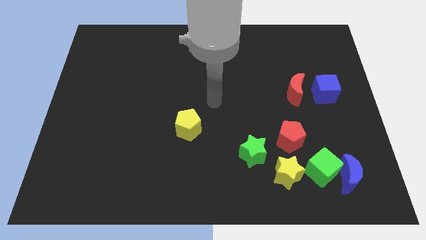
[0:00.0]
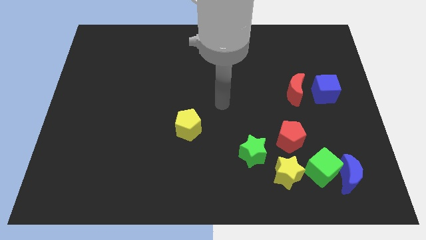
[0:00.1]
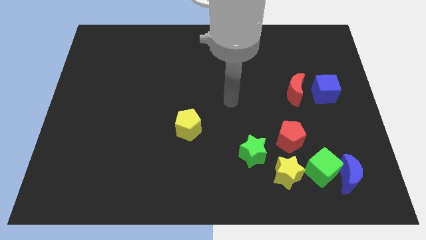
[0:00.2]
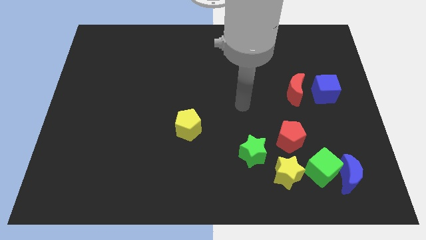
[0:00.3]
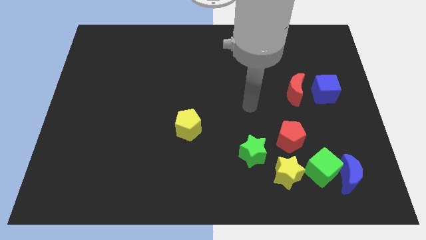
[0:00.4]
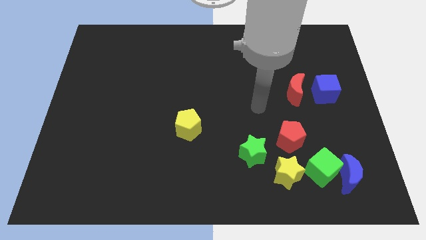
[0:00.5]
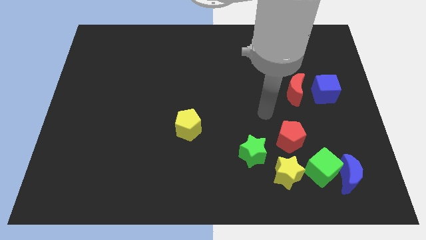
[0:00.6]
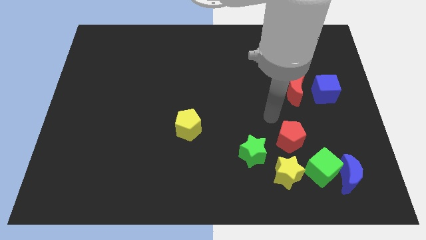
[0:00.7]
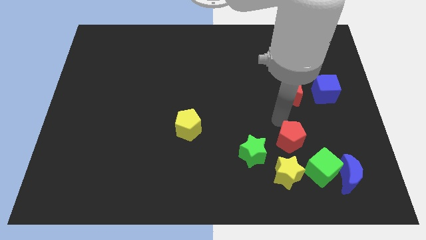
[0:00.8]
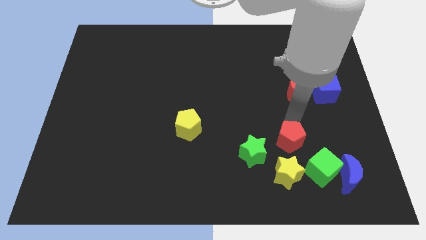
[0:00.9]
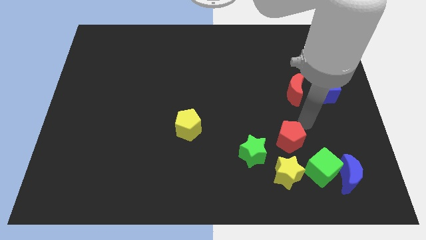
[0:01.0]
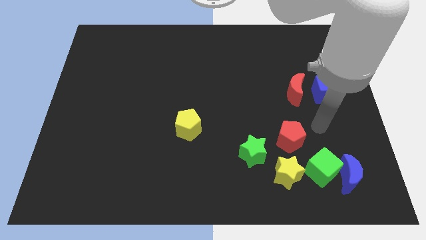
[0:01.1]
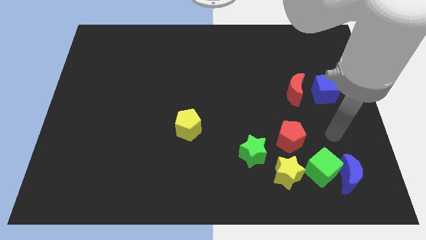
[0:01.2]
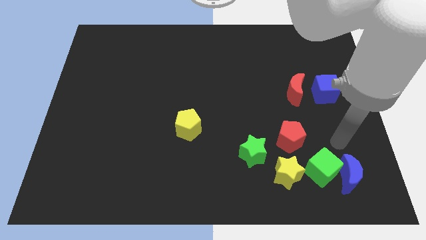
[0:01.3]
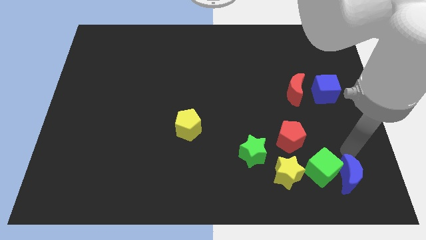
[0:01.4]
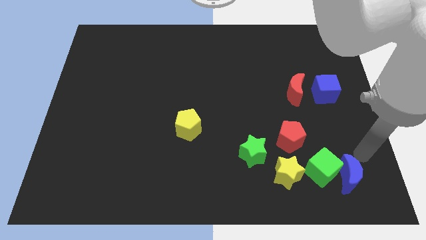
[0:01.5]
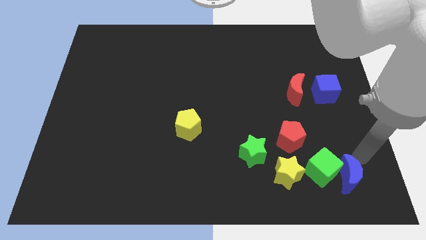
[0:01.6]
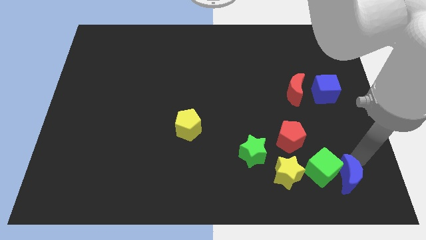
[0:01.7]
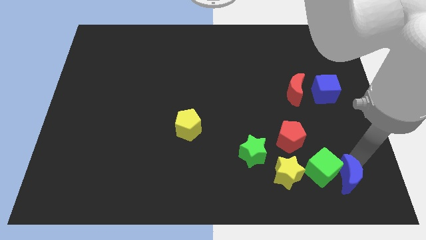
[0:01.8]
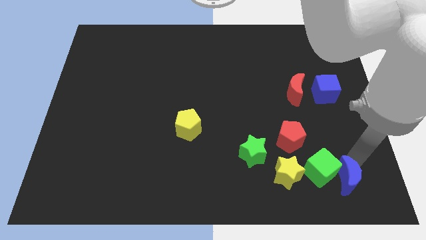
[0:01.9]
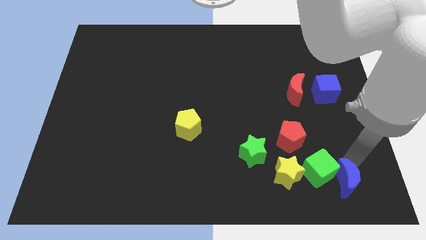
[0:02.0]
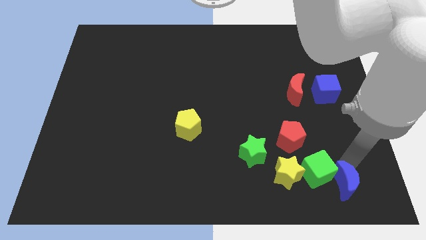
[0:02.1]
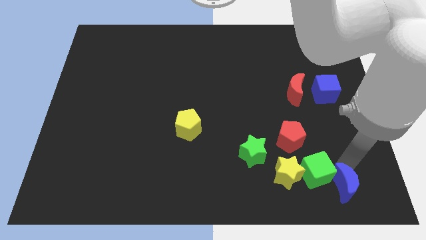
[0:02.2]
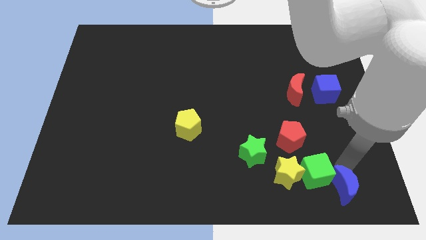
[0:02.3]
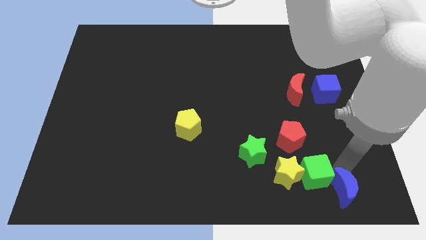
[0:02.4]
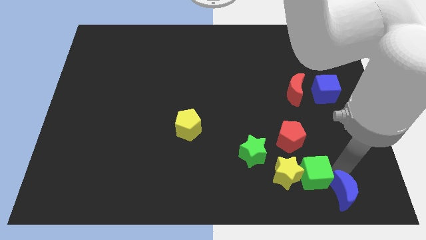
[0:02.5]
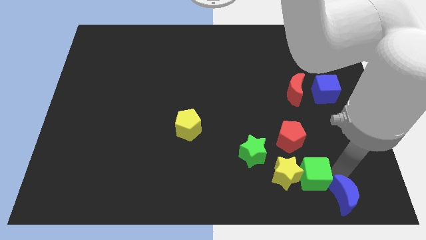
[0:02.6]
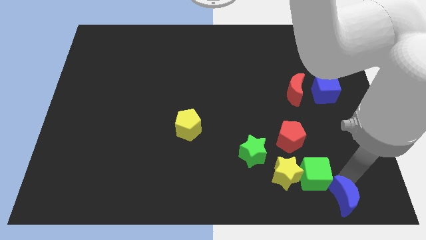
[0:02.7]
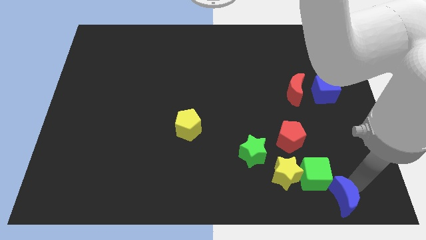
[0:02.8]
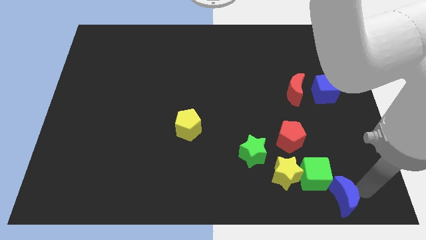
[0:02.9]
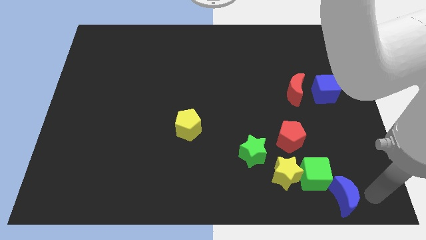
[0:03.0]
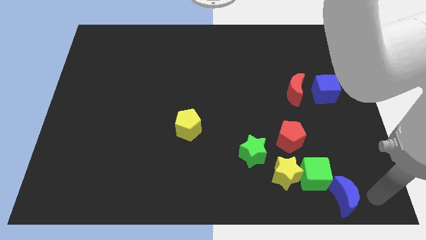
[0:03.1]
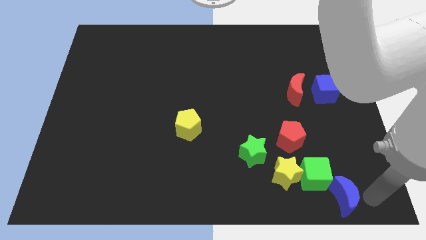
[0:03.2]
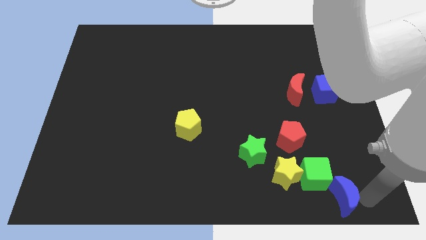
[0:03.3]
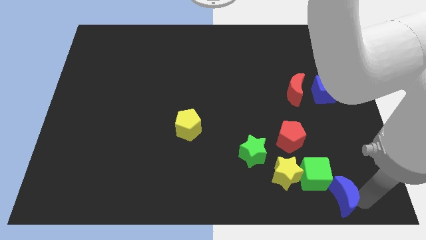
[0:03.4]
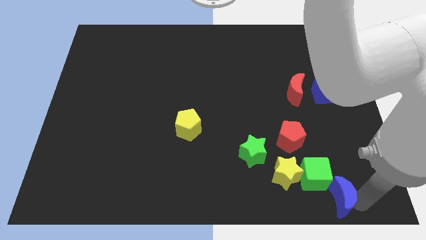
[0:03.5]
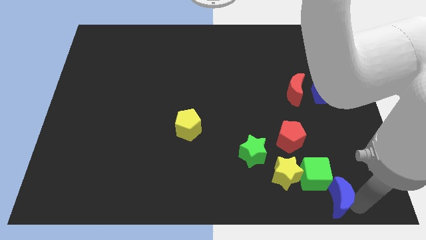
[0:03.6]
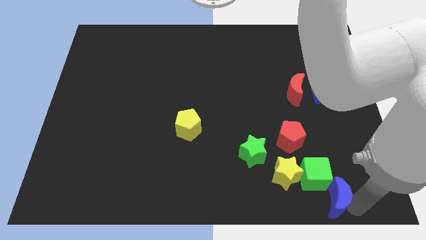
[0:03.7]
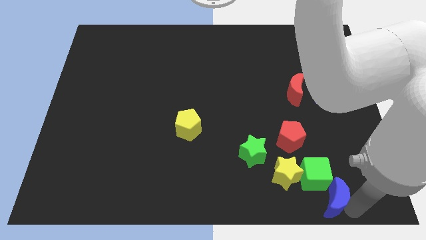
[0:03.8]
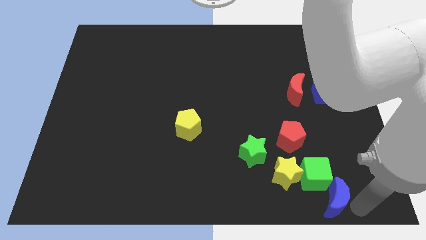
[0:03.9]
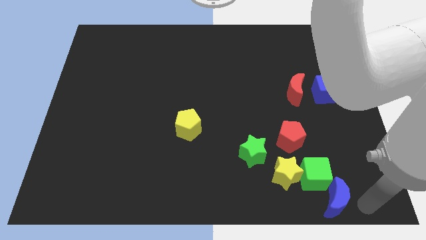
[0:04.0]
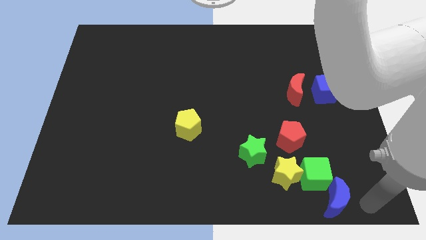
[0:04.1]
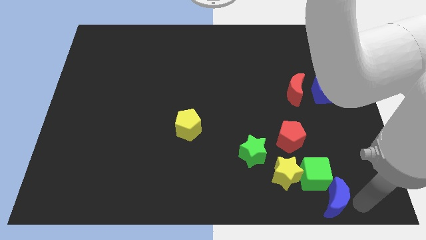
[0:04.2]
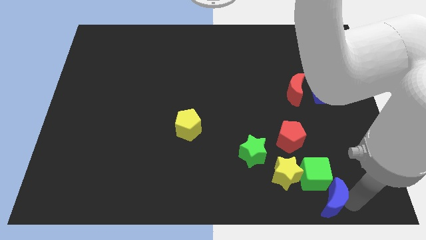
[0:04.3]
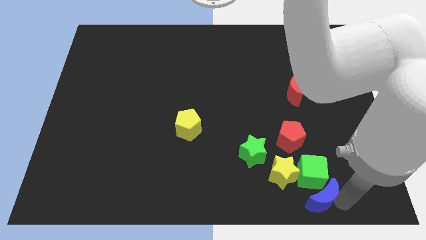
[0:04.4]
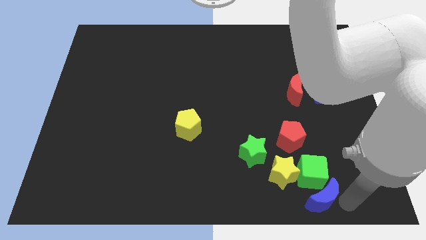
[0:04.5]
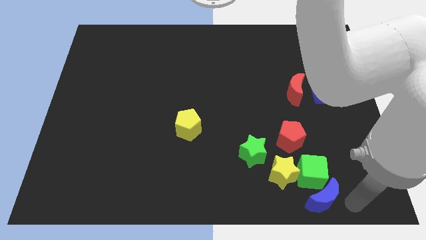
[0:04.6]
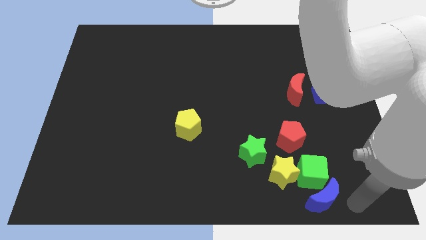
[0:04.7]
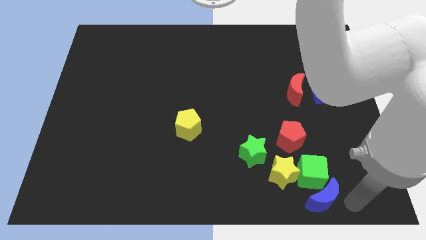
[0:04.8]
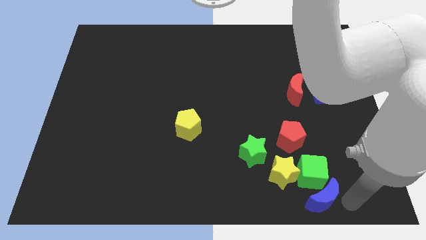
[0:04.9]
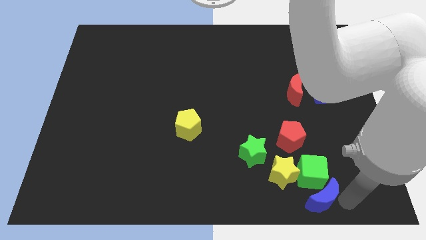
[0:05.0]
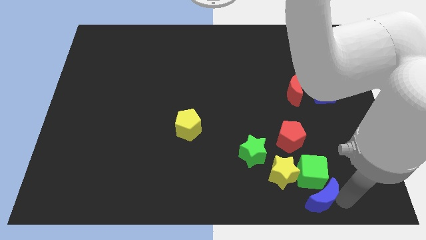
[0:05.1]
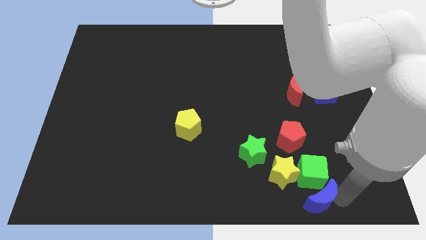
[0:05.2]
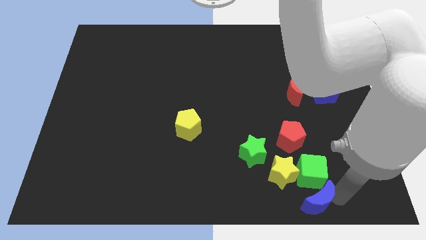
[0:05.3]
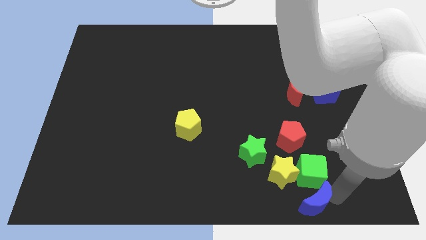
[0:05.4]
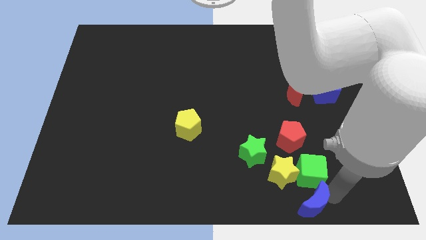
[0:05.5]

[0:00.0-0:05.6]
move the blue moon a little left

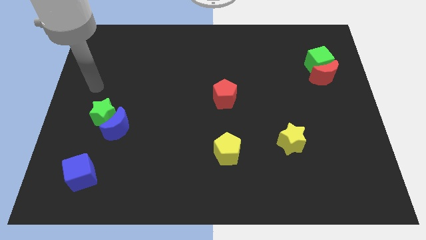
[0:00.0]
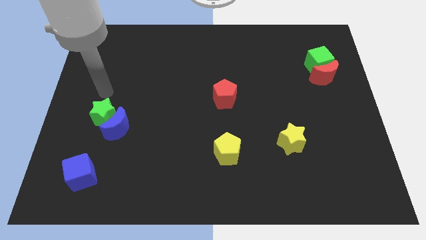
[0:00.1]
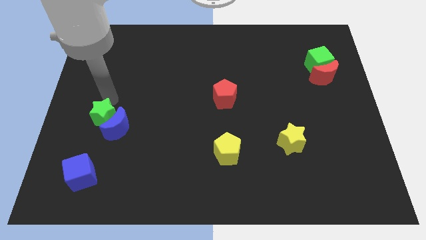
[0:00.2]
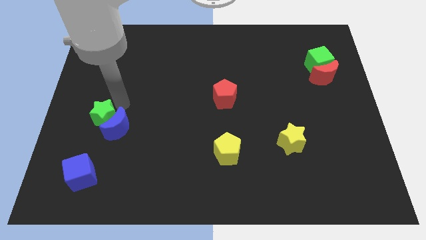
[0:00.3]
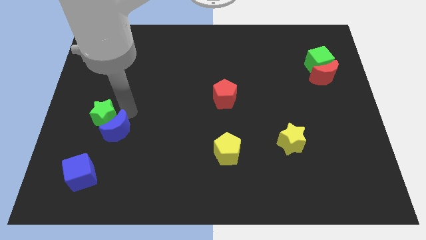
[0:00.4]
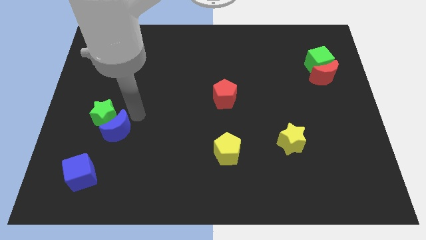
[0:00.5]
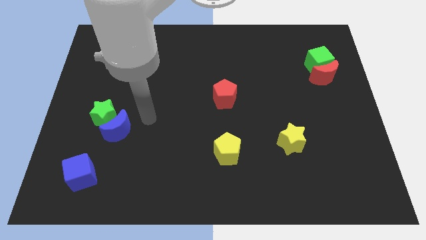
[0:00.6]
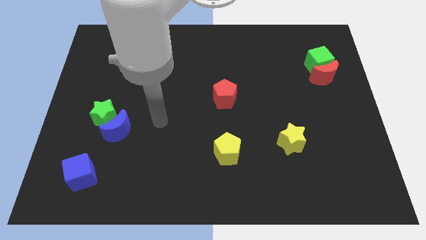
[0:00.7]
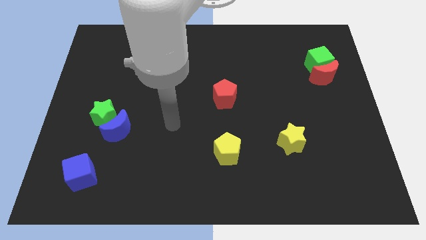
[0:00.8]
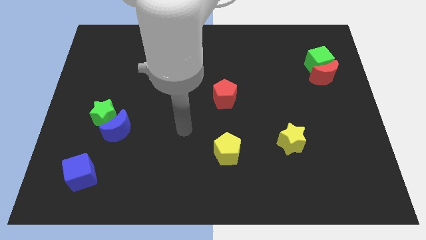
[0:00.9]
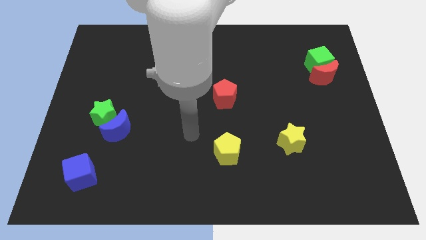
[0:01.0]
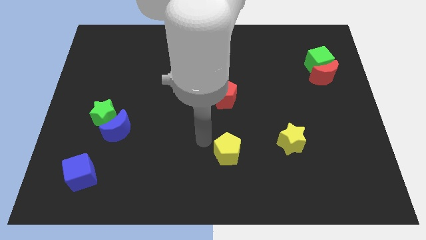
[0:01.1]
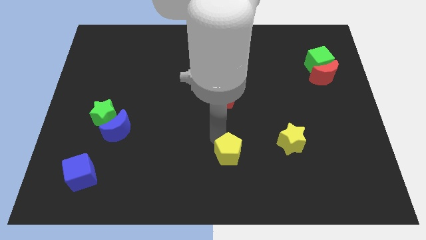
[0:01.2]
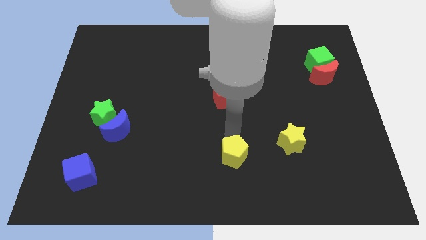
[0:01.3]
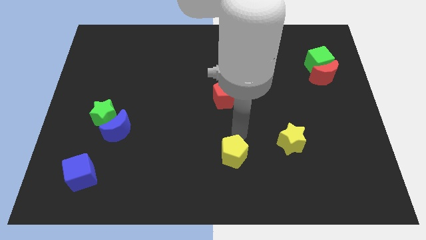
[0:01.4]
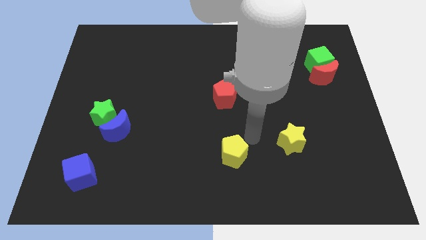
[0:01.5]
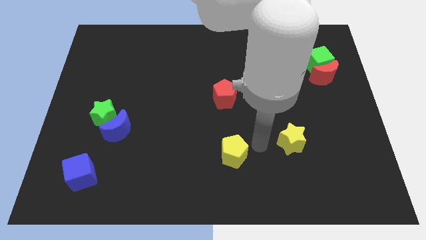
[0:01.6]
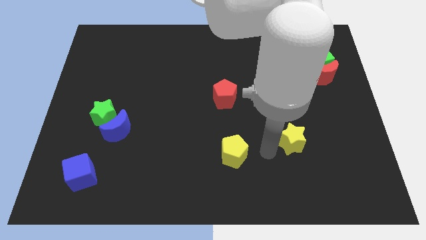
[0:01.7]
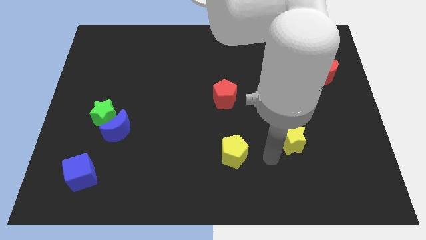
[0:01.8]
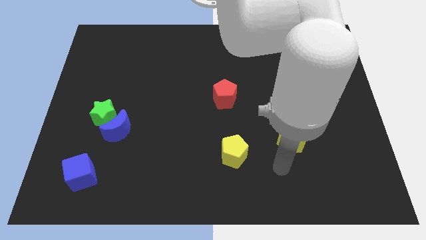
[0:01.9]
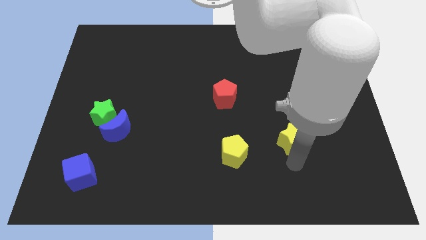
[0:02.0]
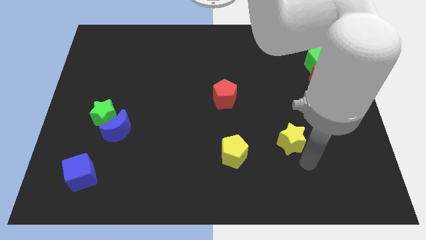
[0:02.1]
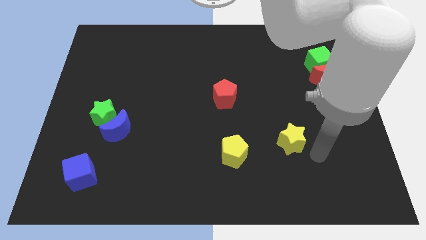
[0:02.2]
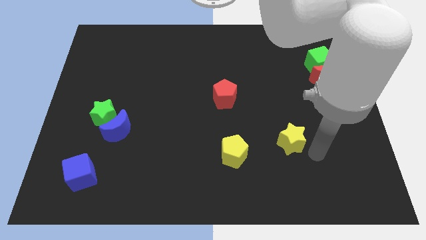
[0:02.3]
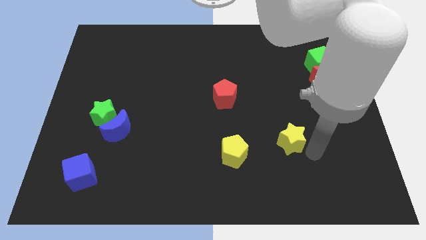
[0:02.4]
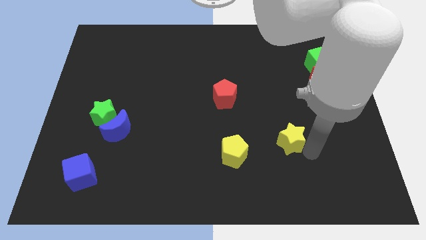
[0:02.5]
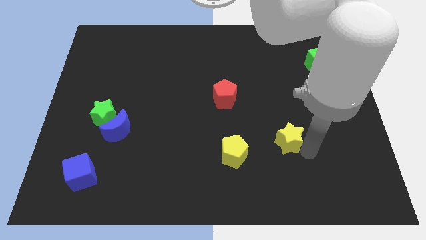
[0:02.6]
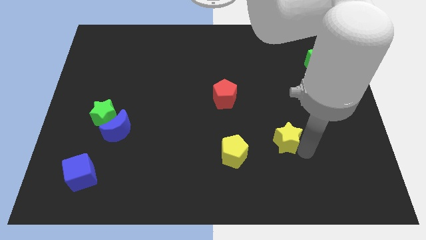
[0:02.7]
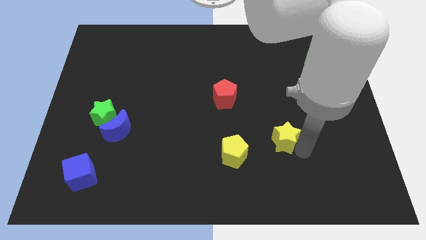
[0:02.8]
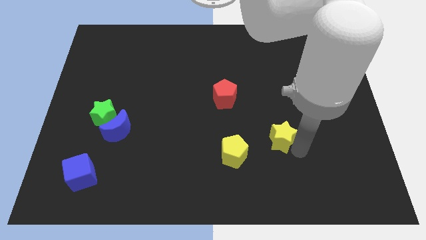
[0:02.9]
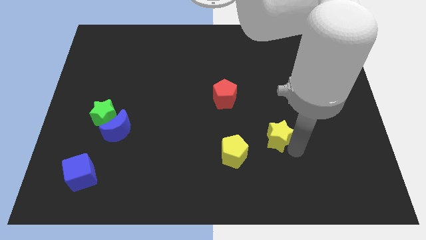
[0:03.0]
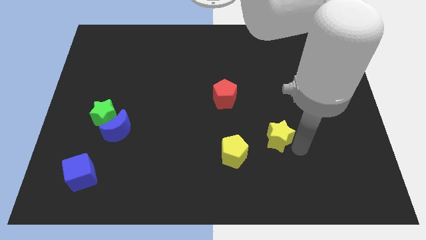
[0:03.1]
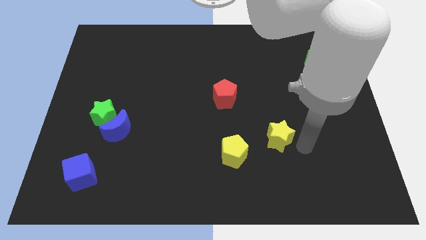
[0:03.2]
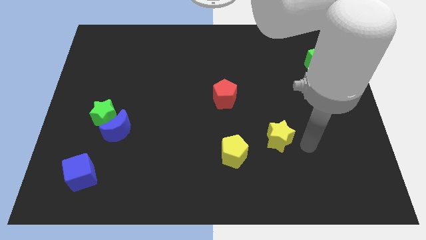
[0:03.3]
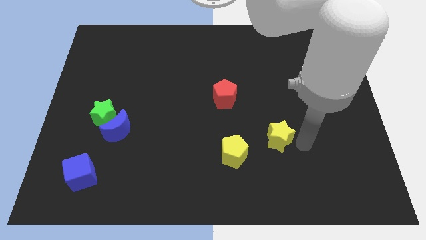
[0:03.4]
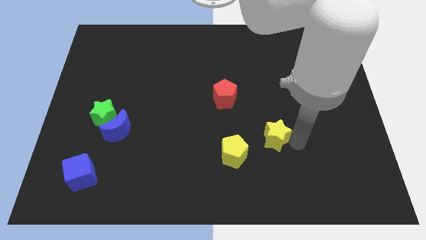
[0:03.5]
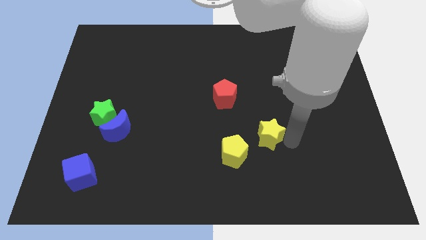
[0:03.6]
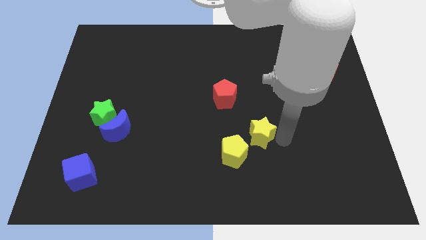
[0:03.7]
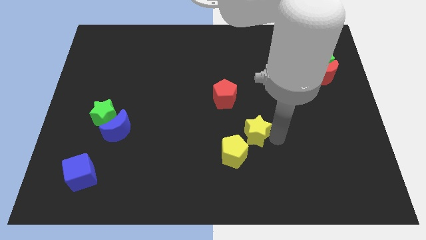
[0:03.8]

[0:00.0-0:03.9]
move the yellow star to the left a little bit
